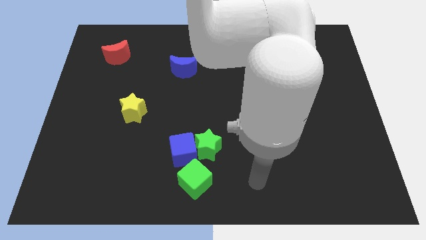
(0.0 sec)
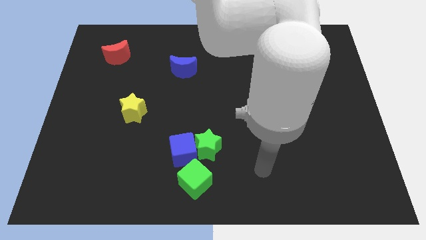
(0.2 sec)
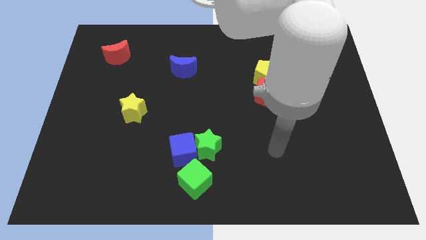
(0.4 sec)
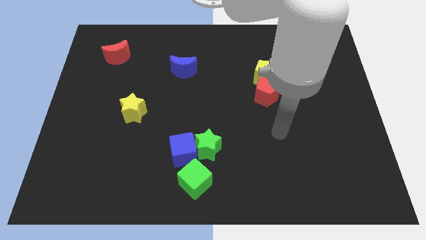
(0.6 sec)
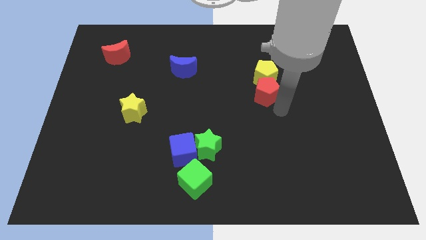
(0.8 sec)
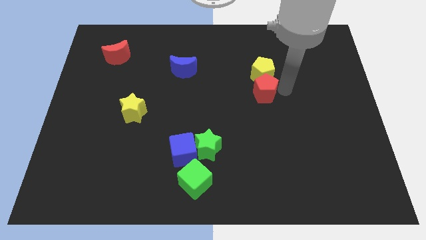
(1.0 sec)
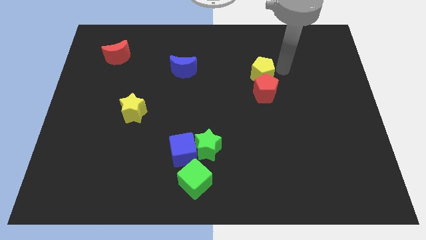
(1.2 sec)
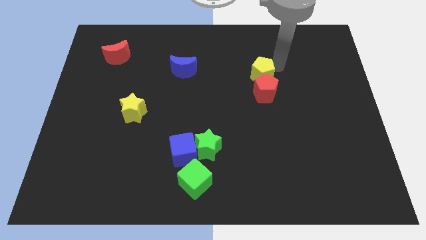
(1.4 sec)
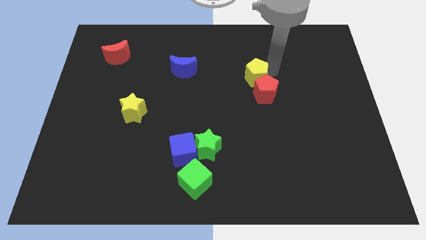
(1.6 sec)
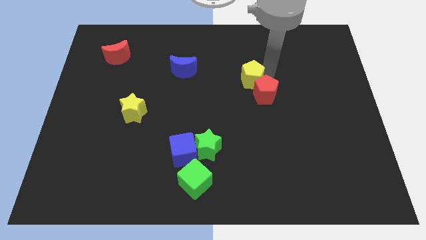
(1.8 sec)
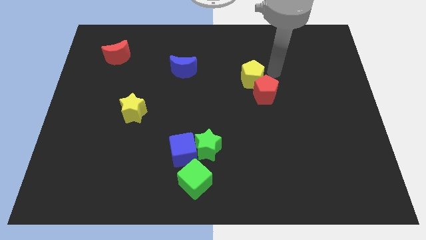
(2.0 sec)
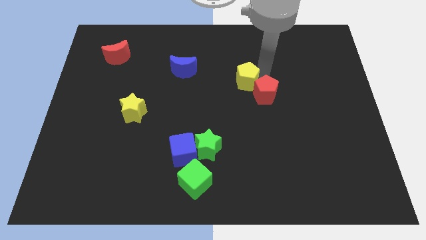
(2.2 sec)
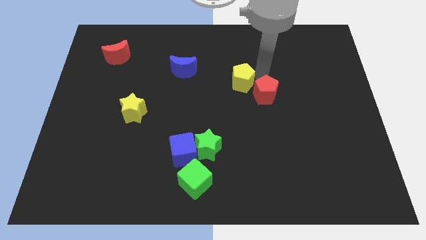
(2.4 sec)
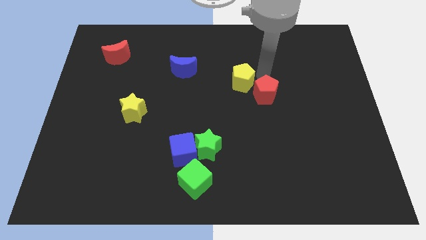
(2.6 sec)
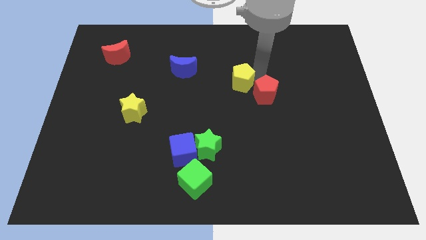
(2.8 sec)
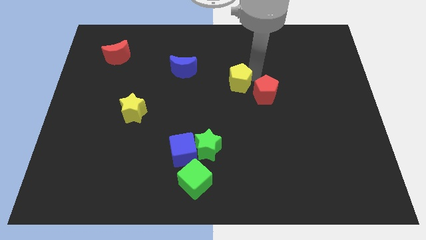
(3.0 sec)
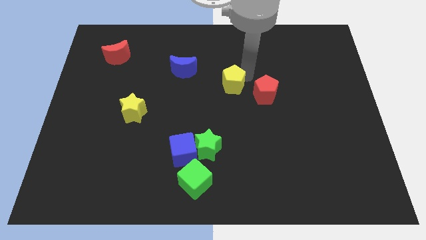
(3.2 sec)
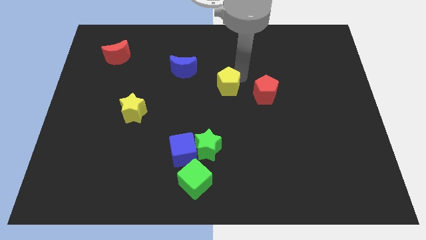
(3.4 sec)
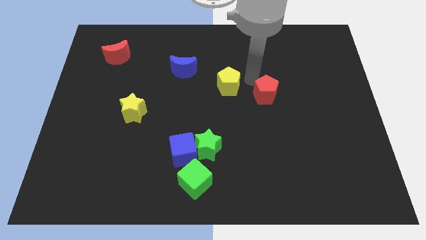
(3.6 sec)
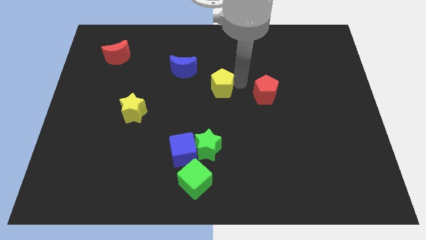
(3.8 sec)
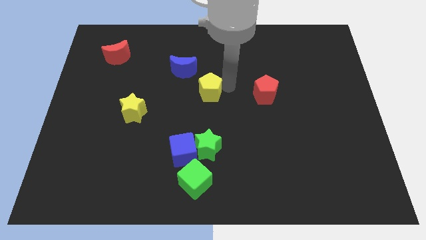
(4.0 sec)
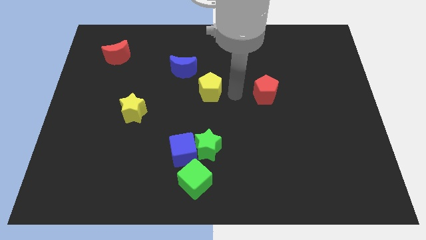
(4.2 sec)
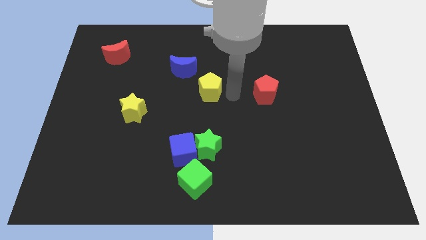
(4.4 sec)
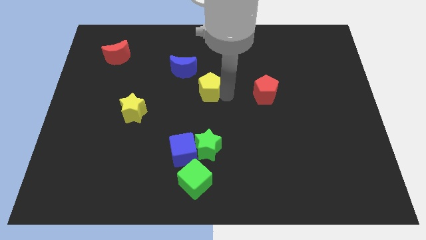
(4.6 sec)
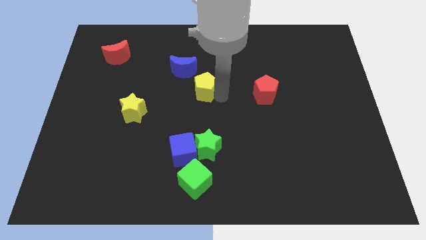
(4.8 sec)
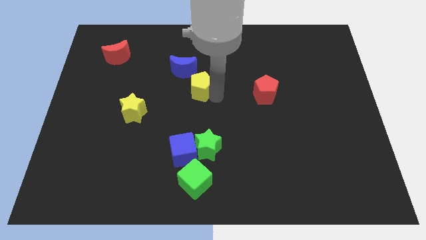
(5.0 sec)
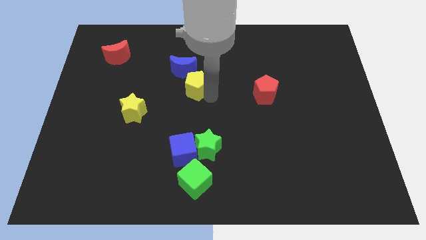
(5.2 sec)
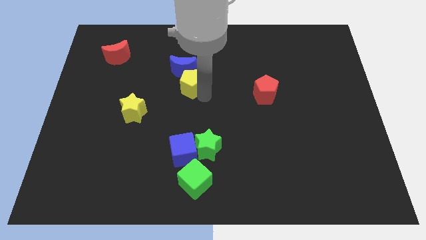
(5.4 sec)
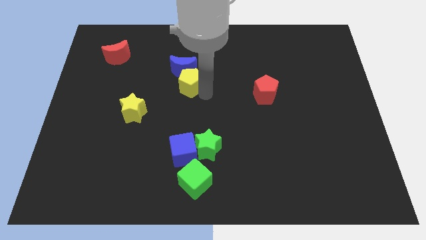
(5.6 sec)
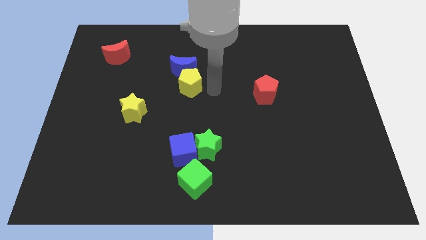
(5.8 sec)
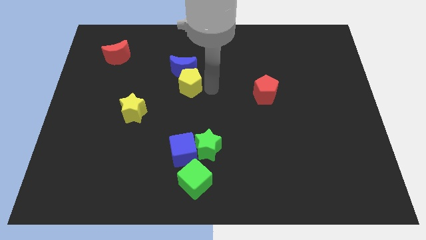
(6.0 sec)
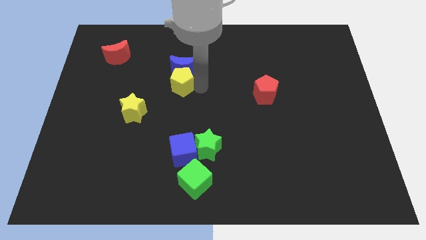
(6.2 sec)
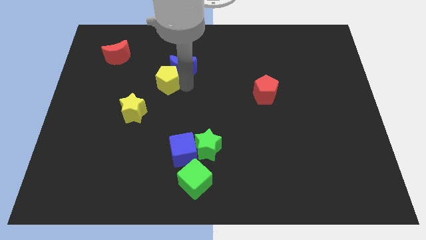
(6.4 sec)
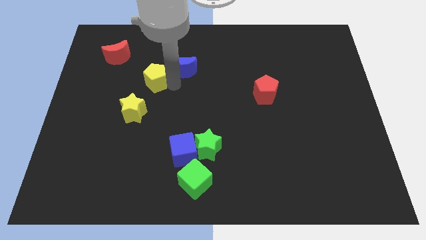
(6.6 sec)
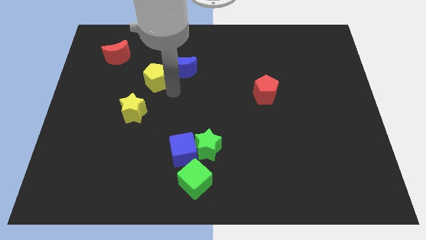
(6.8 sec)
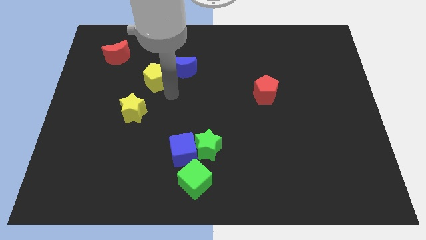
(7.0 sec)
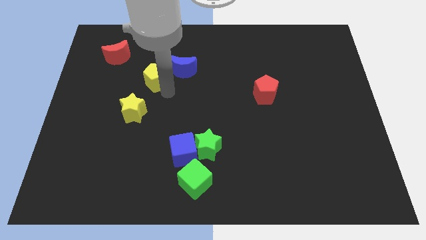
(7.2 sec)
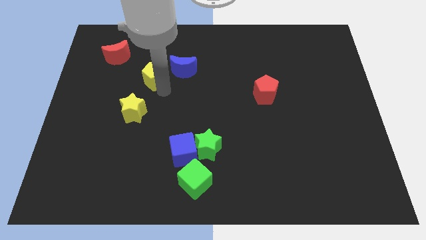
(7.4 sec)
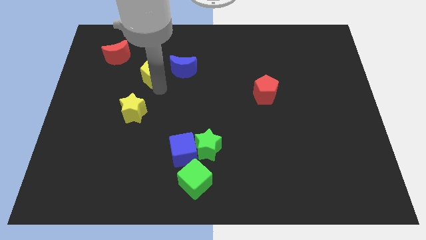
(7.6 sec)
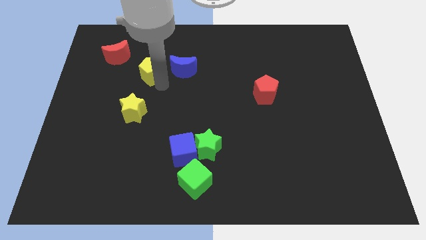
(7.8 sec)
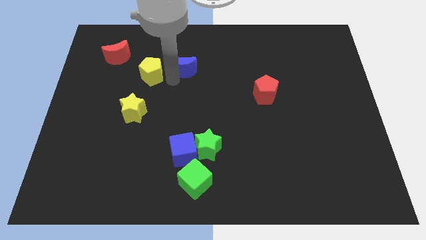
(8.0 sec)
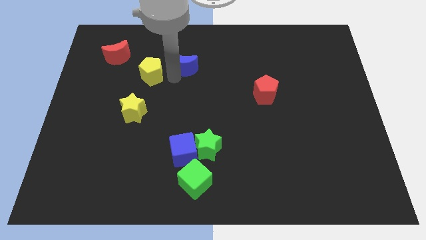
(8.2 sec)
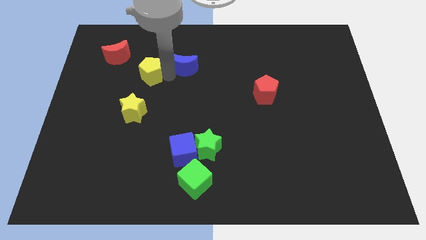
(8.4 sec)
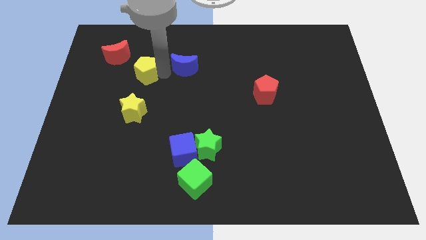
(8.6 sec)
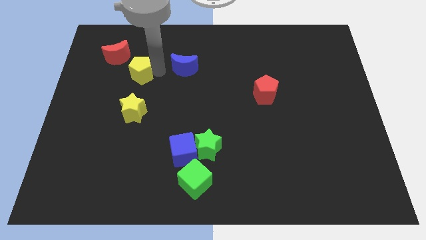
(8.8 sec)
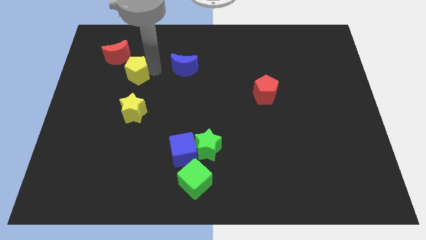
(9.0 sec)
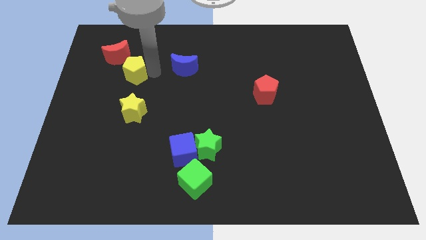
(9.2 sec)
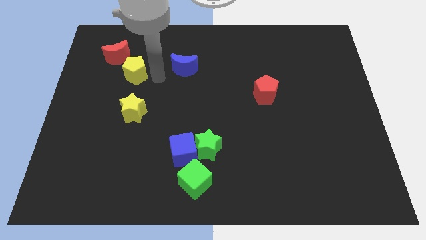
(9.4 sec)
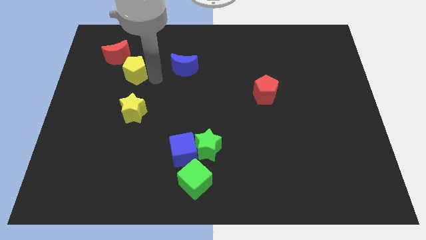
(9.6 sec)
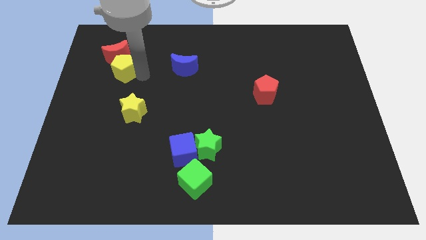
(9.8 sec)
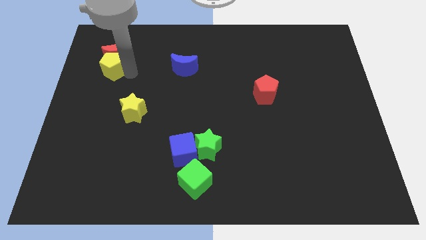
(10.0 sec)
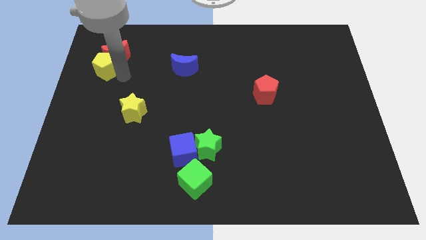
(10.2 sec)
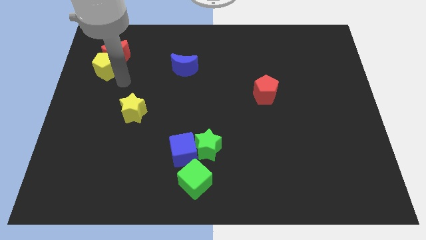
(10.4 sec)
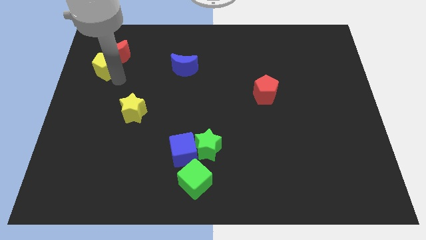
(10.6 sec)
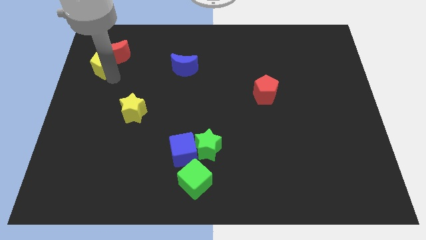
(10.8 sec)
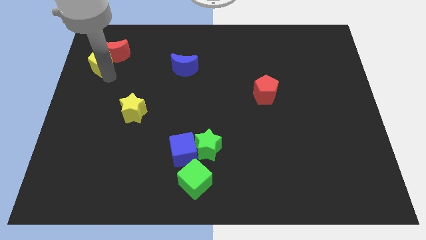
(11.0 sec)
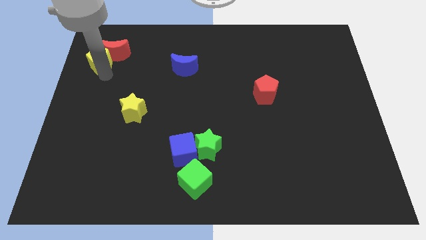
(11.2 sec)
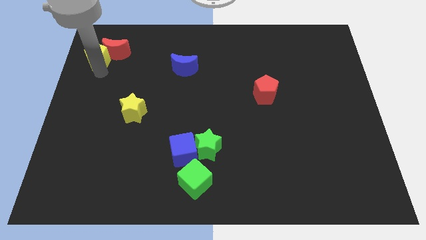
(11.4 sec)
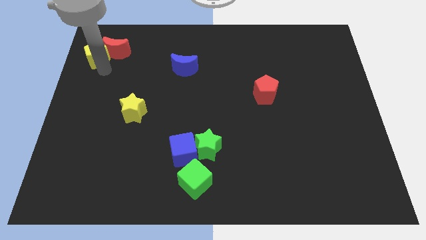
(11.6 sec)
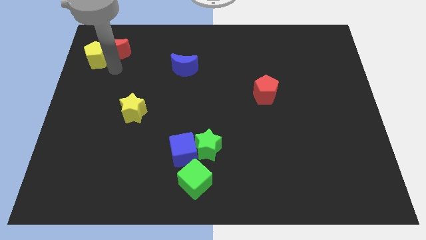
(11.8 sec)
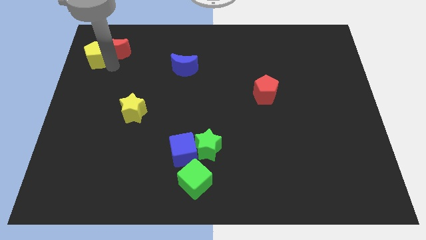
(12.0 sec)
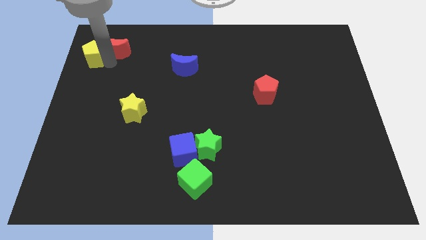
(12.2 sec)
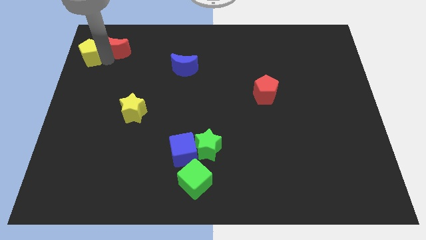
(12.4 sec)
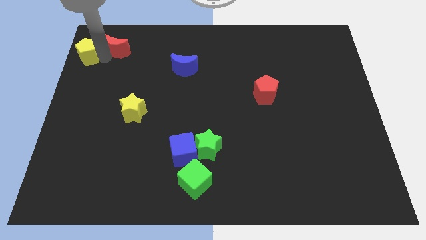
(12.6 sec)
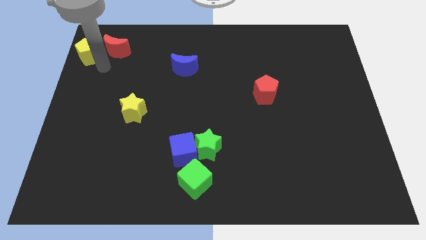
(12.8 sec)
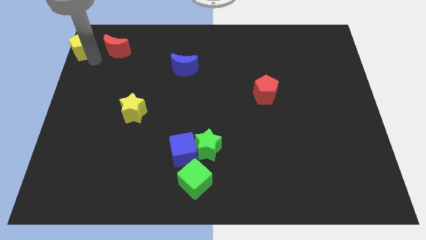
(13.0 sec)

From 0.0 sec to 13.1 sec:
push the yellow pentagon to the top left

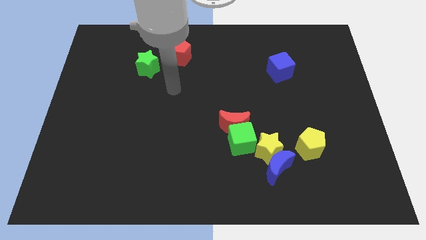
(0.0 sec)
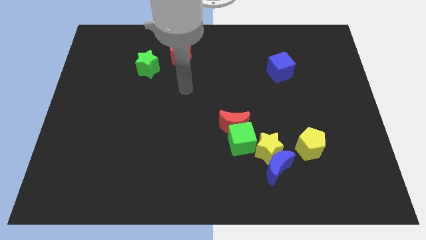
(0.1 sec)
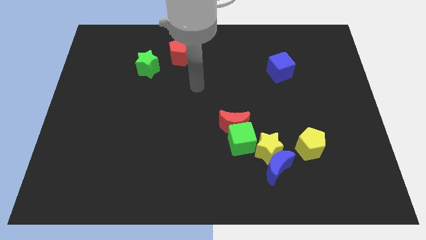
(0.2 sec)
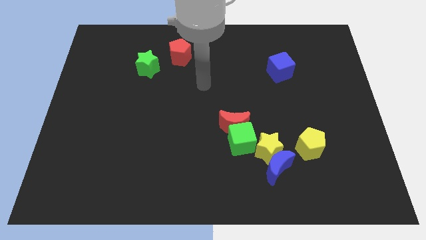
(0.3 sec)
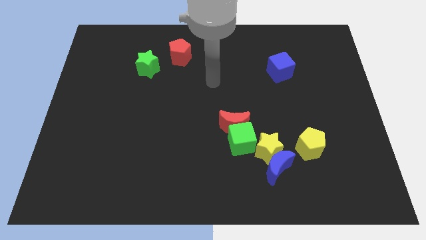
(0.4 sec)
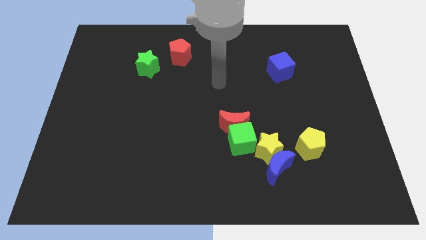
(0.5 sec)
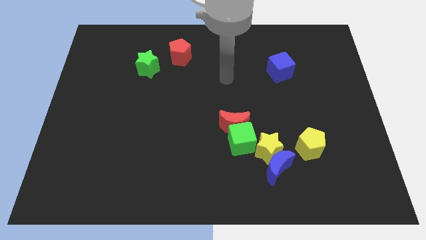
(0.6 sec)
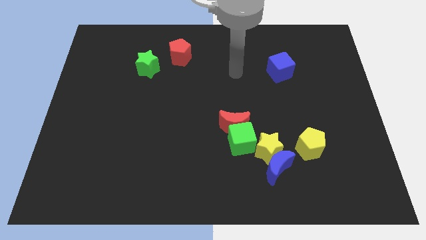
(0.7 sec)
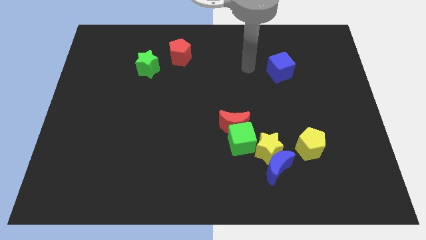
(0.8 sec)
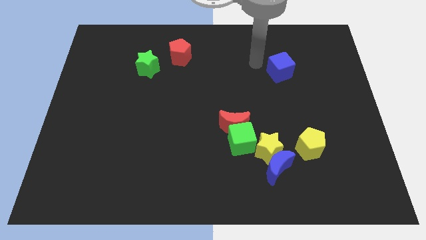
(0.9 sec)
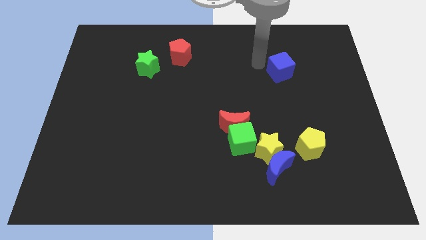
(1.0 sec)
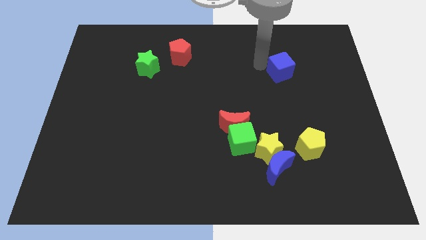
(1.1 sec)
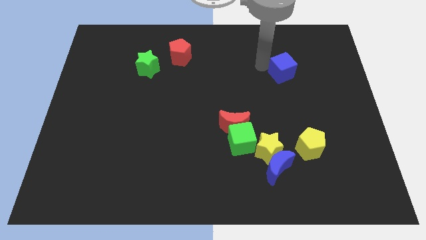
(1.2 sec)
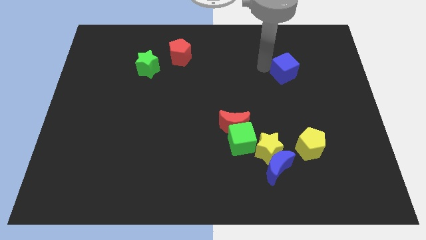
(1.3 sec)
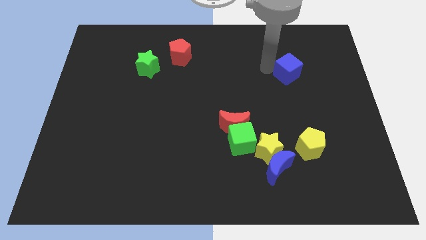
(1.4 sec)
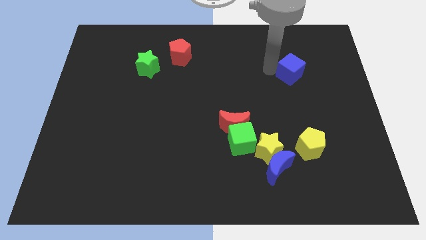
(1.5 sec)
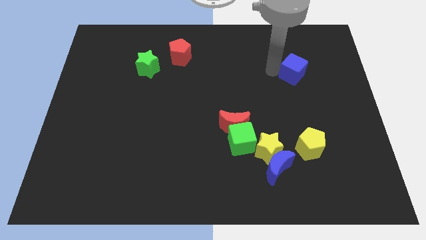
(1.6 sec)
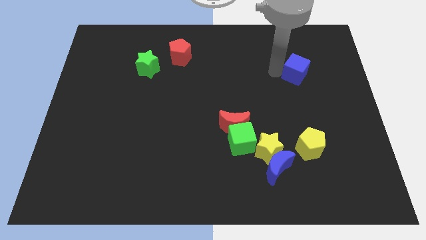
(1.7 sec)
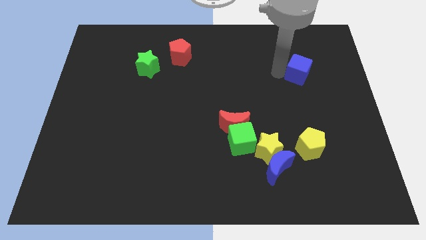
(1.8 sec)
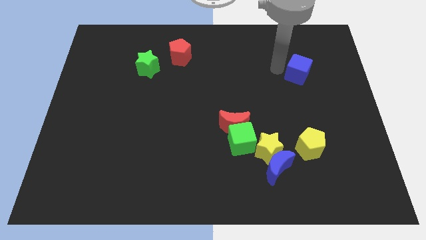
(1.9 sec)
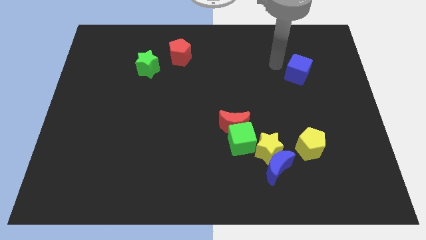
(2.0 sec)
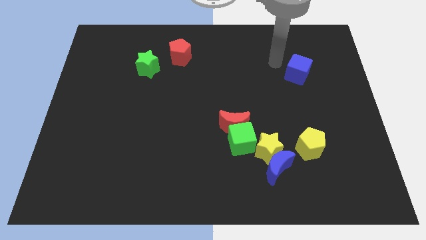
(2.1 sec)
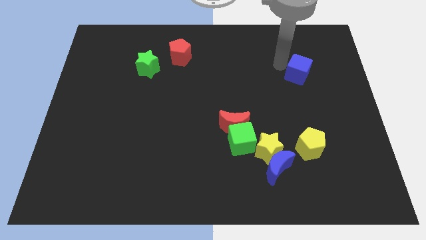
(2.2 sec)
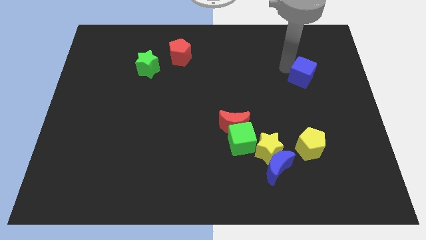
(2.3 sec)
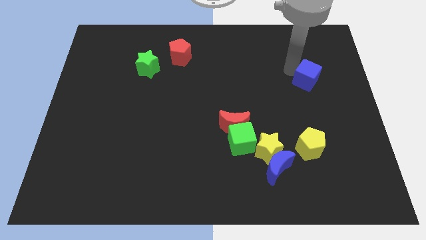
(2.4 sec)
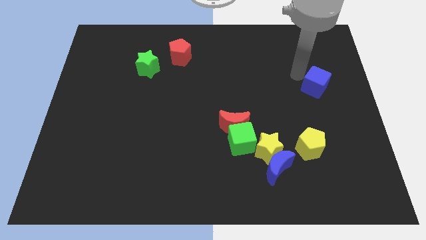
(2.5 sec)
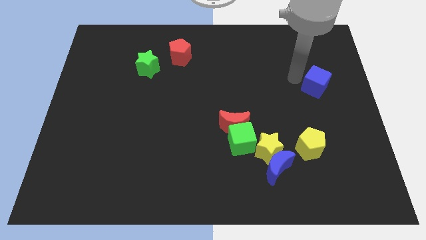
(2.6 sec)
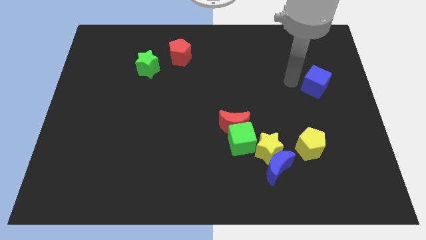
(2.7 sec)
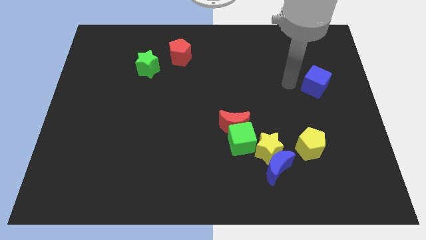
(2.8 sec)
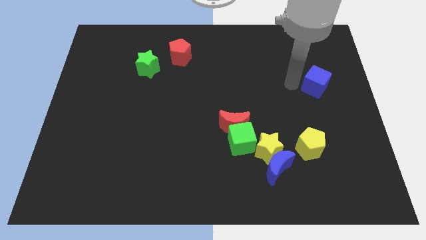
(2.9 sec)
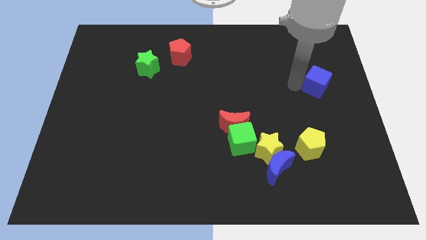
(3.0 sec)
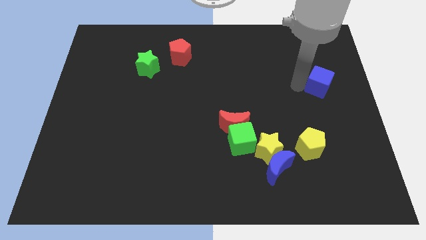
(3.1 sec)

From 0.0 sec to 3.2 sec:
put the blue cube to the right side
